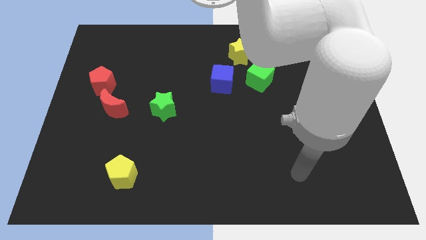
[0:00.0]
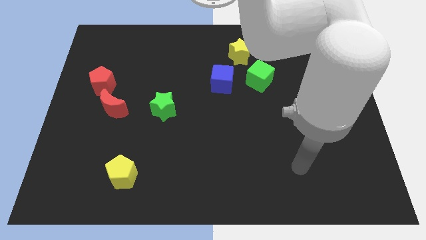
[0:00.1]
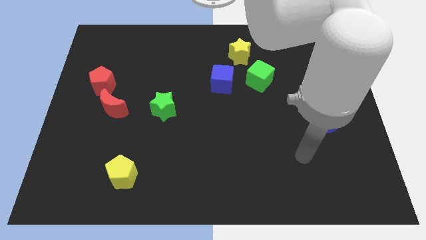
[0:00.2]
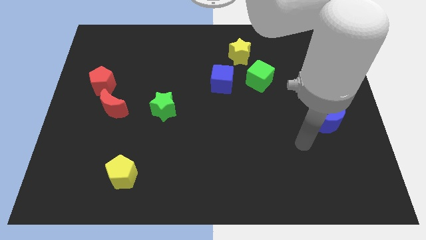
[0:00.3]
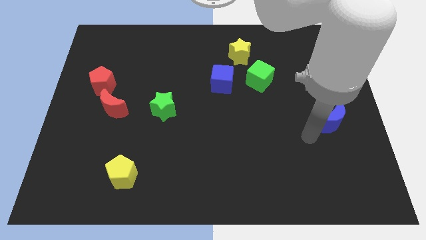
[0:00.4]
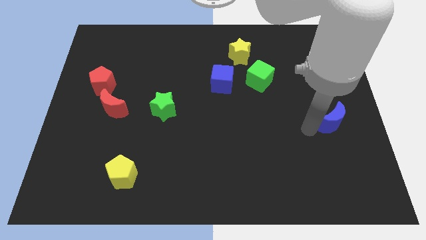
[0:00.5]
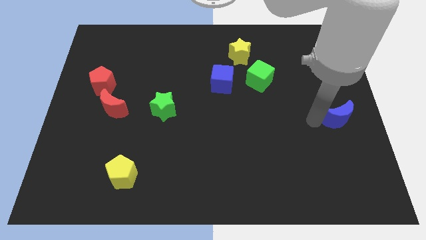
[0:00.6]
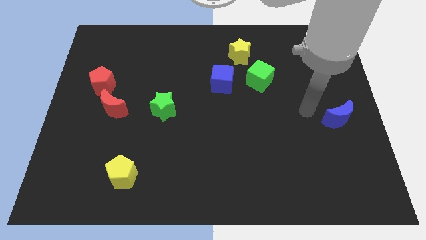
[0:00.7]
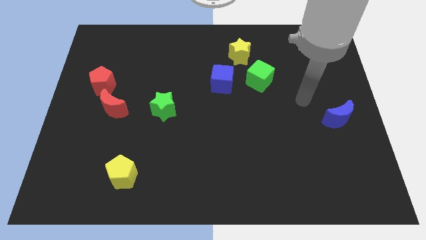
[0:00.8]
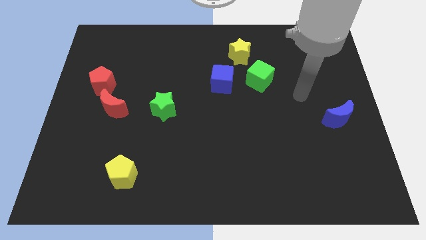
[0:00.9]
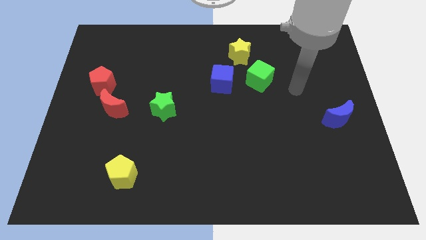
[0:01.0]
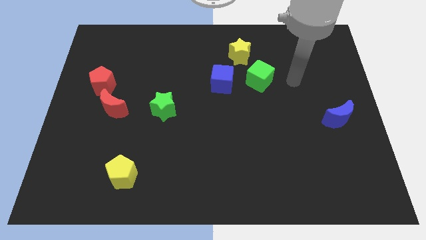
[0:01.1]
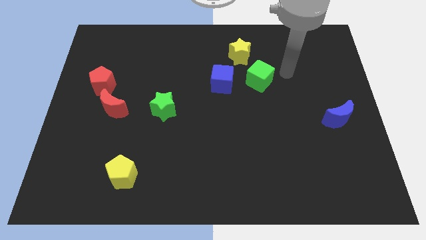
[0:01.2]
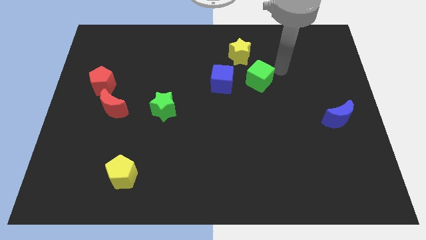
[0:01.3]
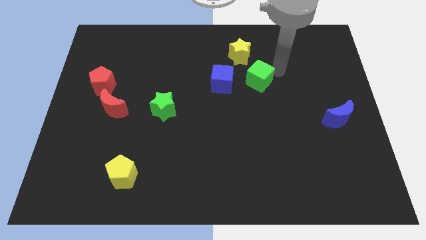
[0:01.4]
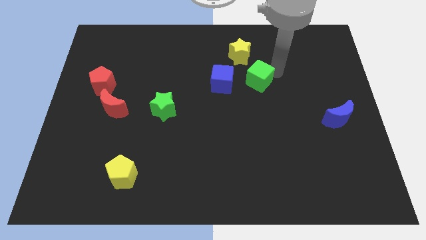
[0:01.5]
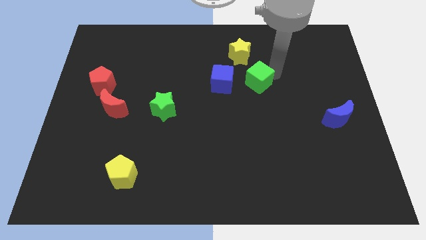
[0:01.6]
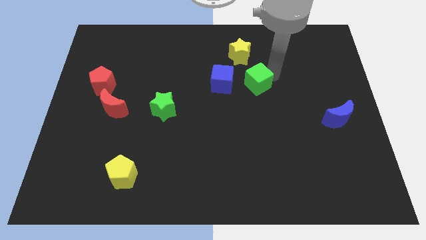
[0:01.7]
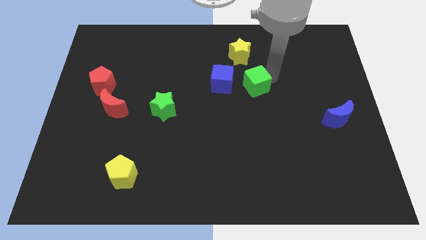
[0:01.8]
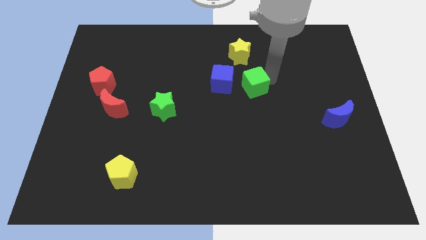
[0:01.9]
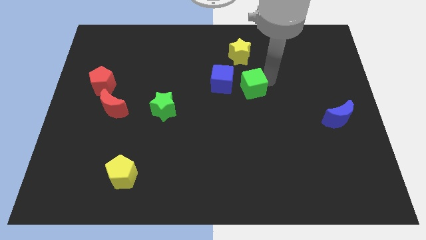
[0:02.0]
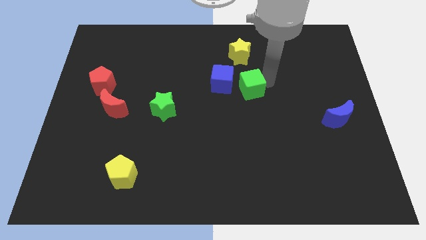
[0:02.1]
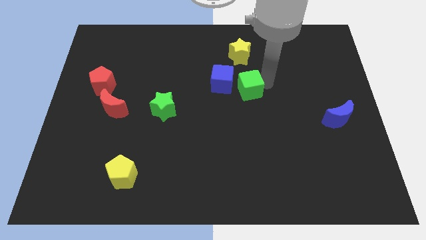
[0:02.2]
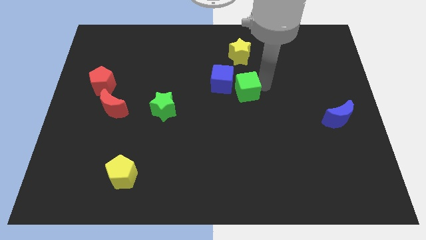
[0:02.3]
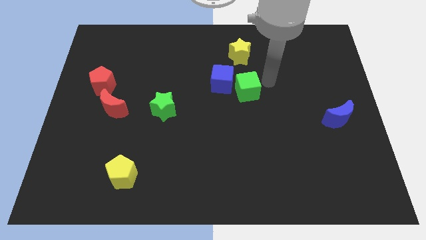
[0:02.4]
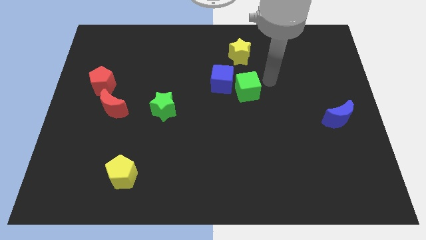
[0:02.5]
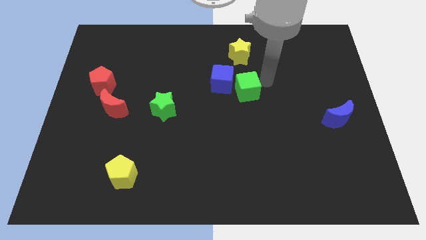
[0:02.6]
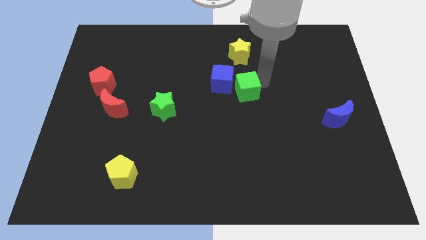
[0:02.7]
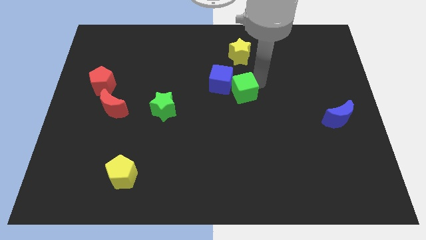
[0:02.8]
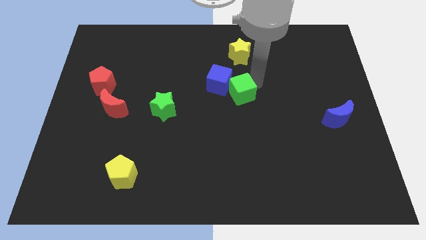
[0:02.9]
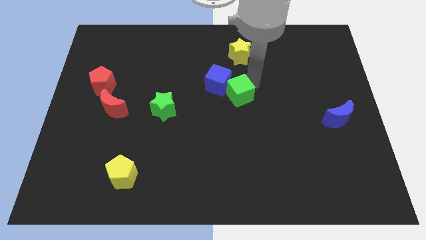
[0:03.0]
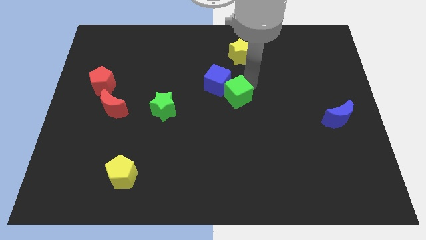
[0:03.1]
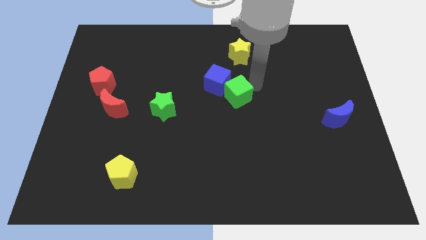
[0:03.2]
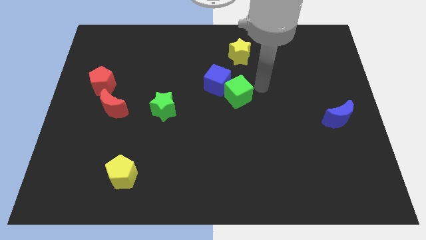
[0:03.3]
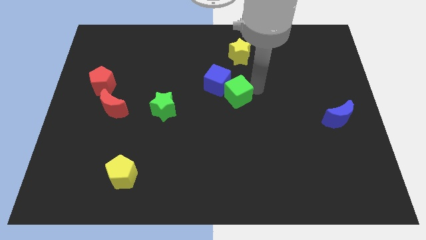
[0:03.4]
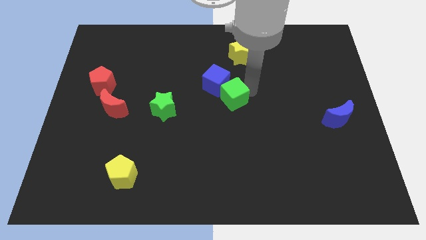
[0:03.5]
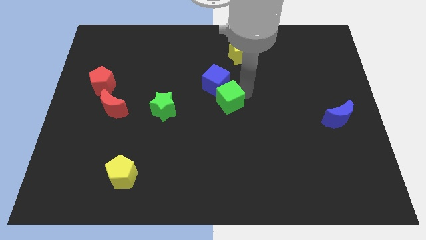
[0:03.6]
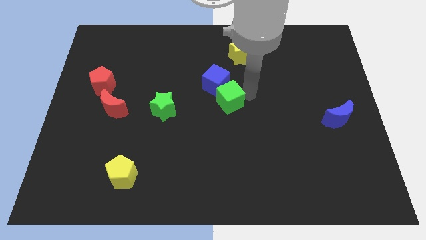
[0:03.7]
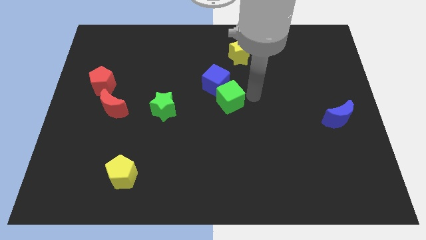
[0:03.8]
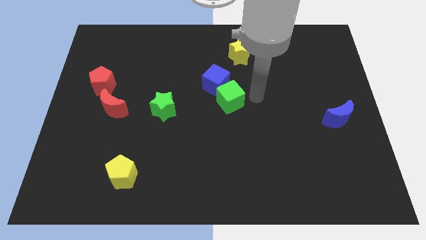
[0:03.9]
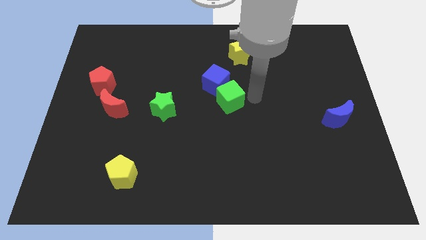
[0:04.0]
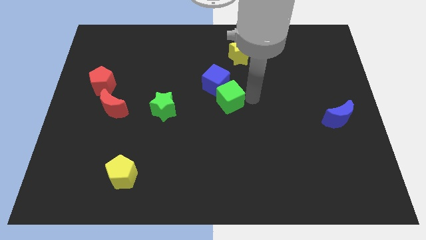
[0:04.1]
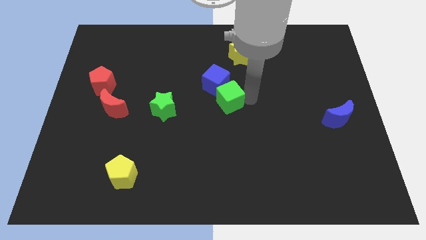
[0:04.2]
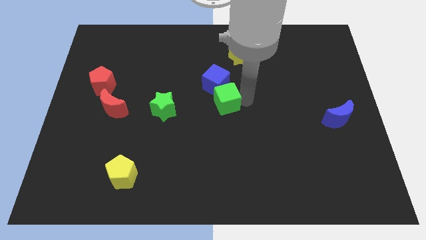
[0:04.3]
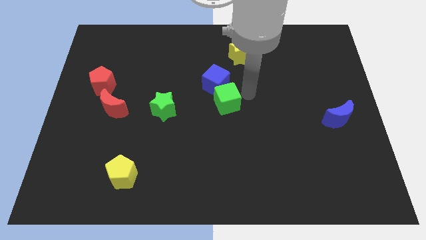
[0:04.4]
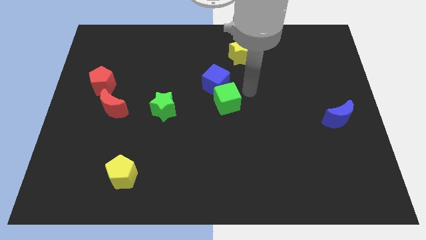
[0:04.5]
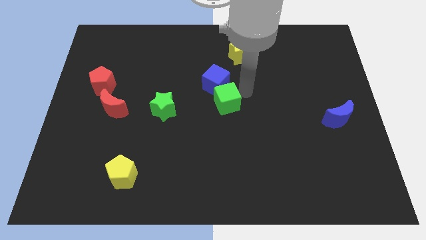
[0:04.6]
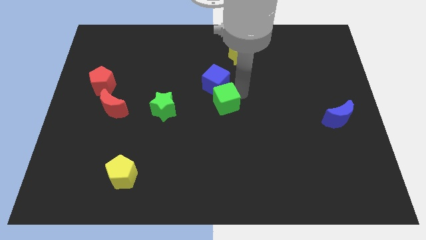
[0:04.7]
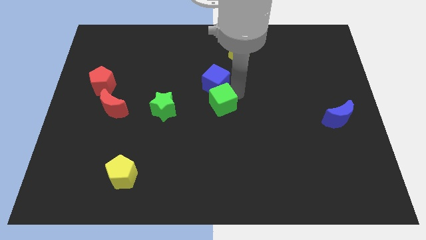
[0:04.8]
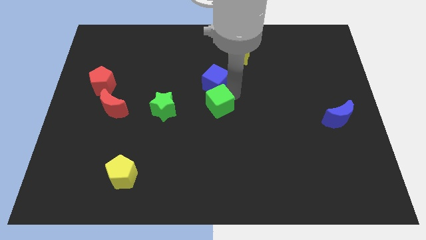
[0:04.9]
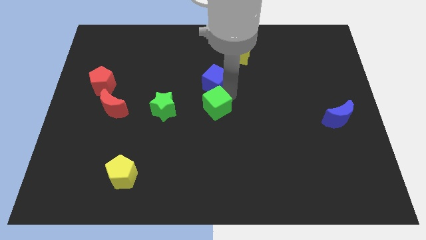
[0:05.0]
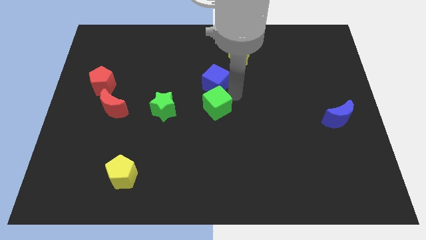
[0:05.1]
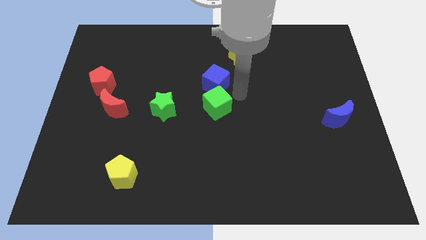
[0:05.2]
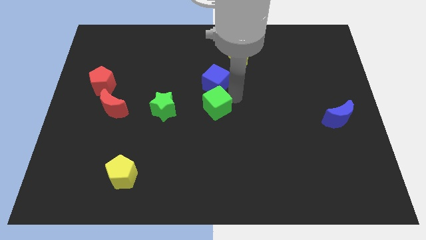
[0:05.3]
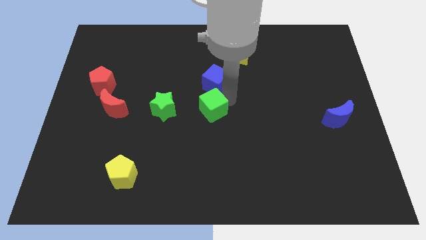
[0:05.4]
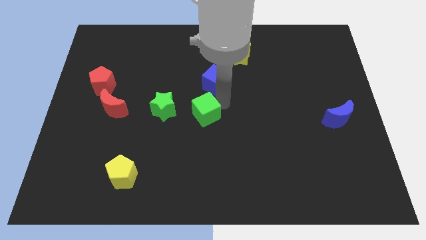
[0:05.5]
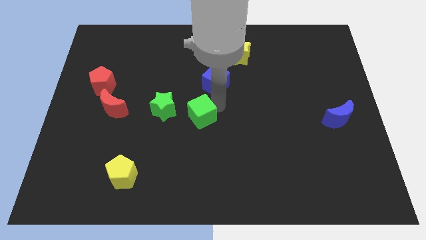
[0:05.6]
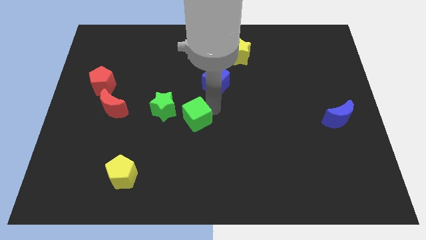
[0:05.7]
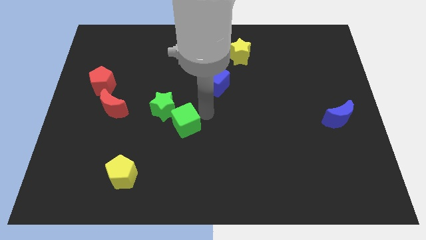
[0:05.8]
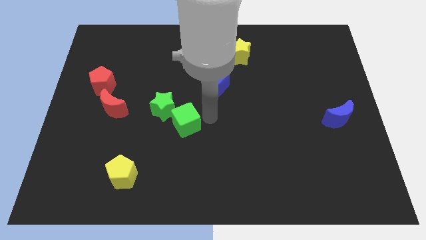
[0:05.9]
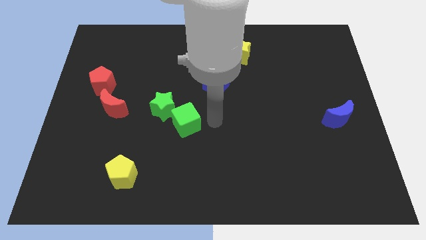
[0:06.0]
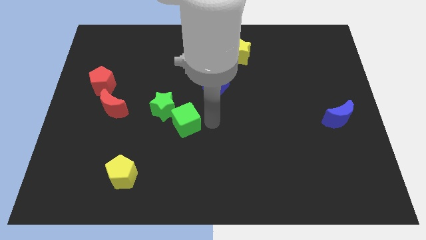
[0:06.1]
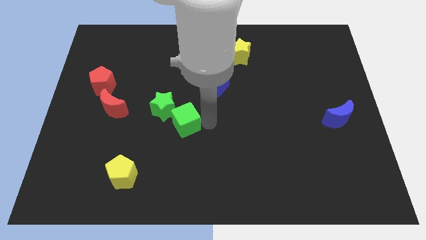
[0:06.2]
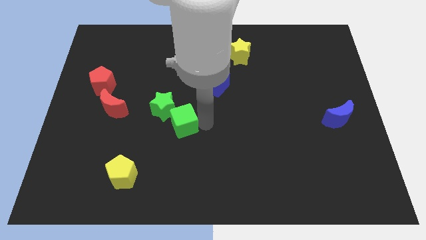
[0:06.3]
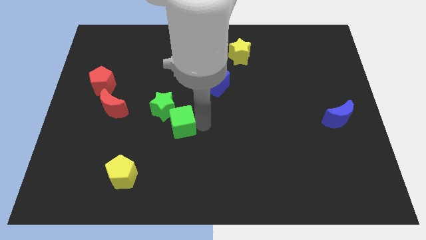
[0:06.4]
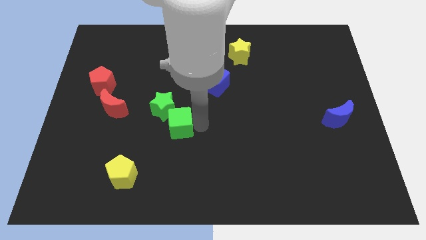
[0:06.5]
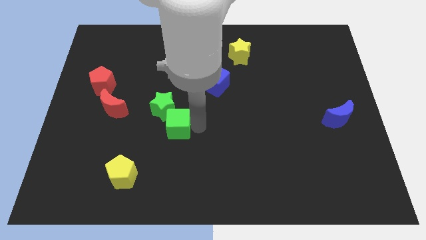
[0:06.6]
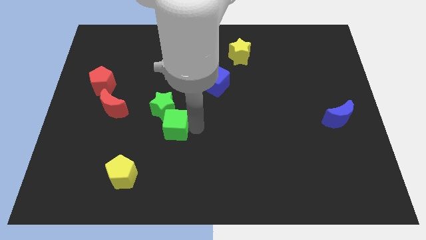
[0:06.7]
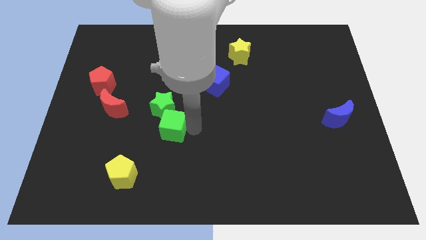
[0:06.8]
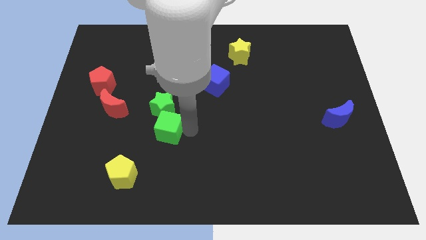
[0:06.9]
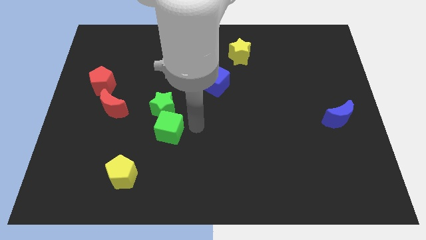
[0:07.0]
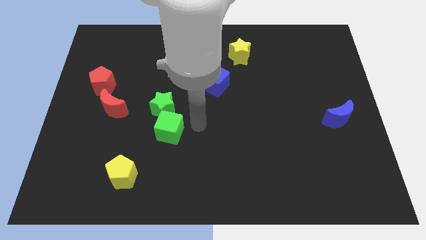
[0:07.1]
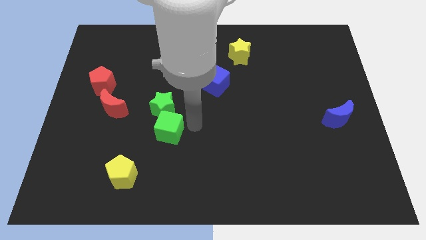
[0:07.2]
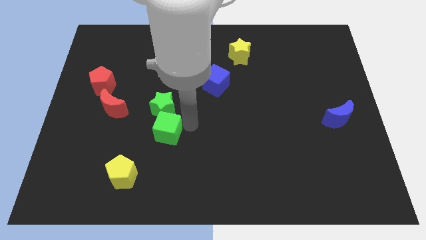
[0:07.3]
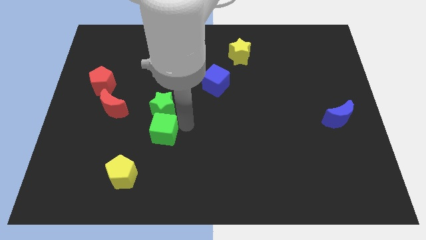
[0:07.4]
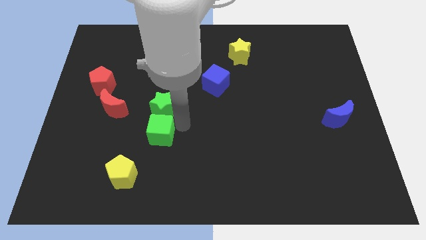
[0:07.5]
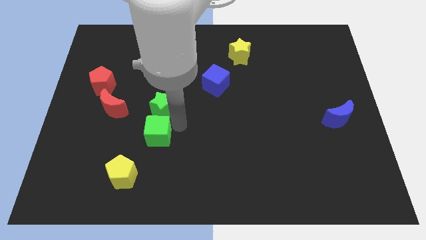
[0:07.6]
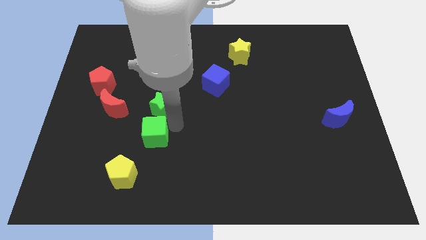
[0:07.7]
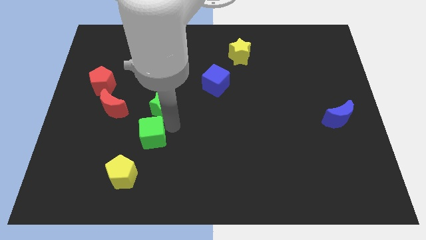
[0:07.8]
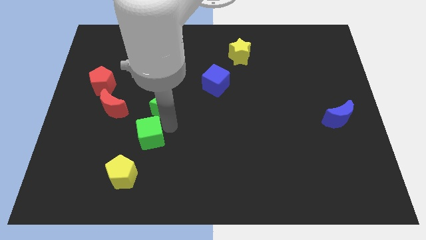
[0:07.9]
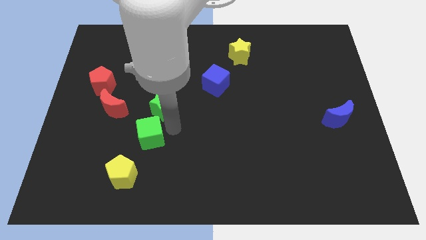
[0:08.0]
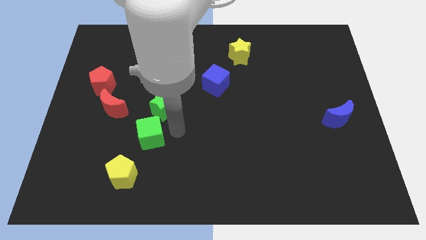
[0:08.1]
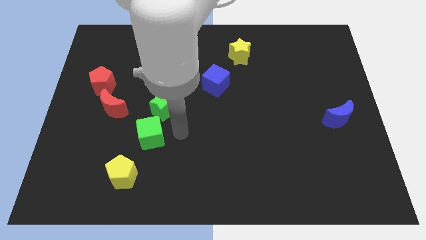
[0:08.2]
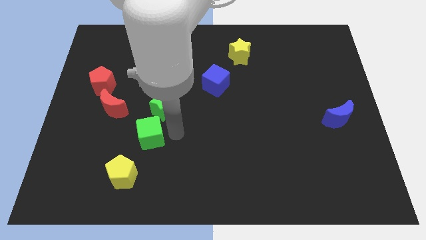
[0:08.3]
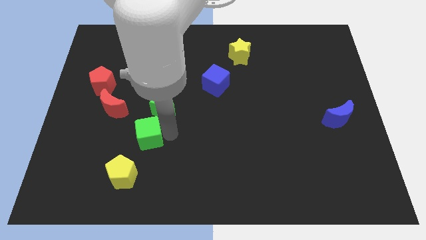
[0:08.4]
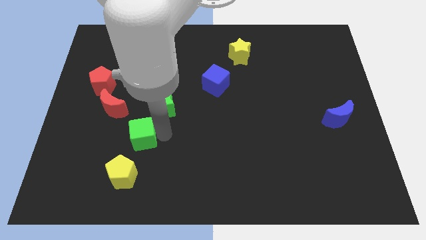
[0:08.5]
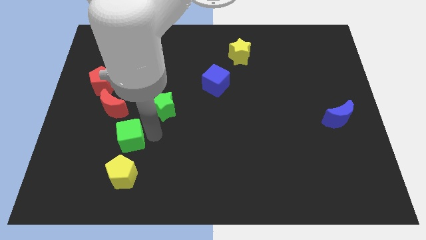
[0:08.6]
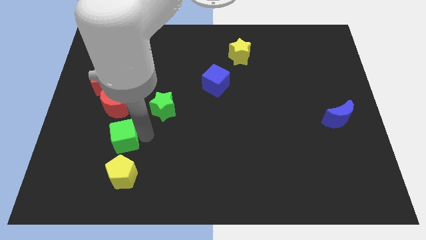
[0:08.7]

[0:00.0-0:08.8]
move the green cube to the bottom side of the red moon
